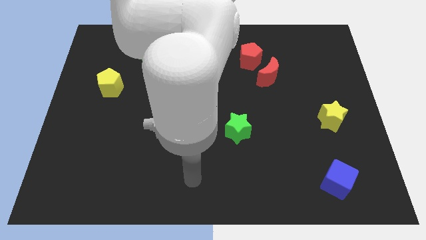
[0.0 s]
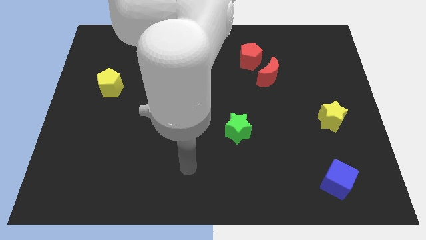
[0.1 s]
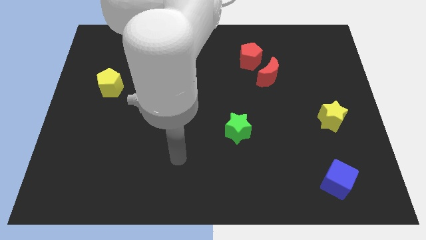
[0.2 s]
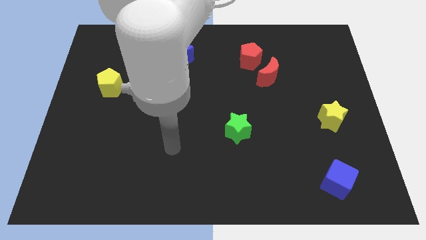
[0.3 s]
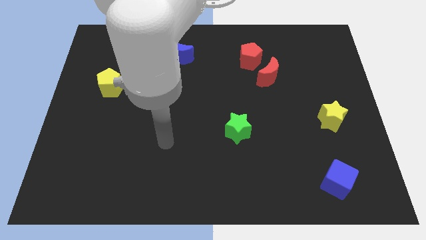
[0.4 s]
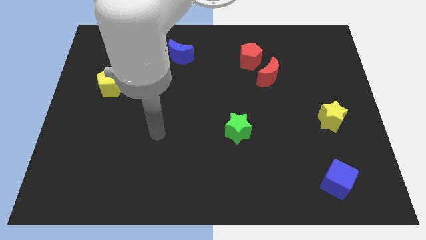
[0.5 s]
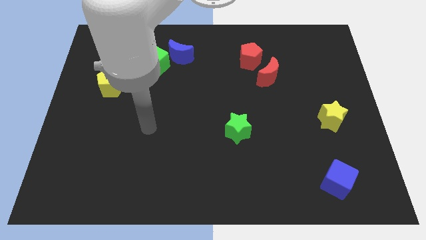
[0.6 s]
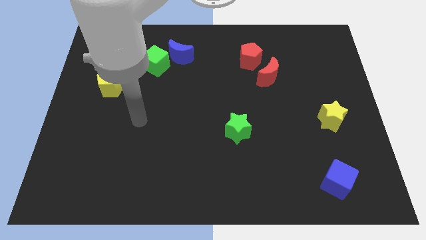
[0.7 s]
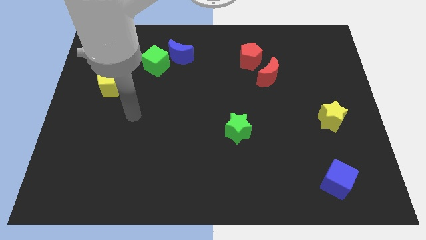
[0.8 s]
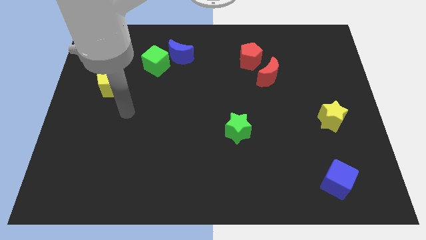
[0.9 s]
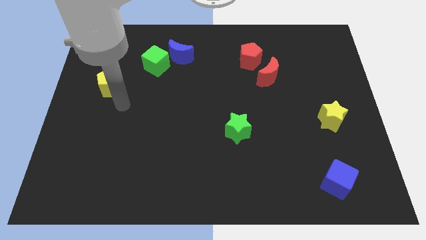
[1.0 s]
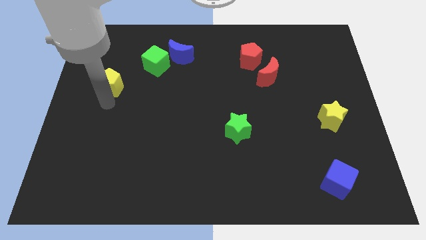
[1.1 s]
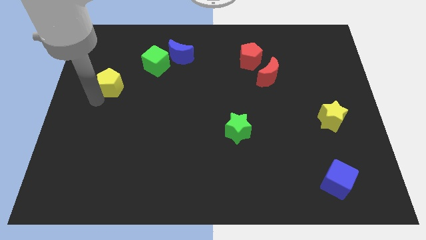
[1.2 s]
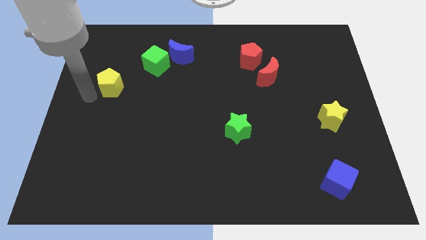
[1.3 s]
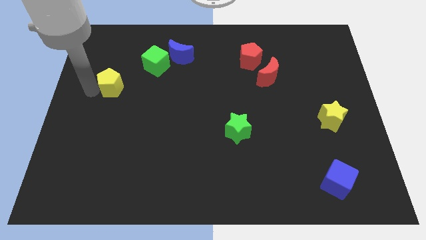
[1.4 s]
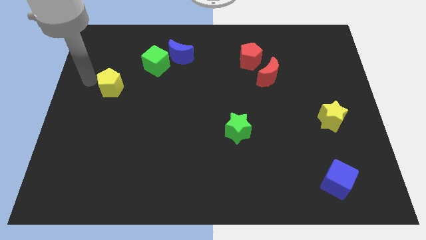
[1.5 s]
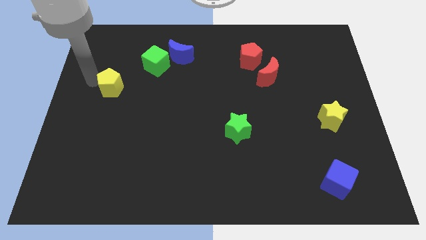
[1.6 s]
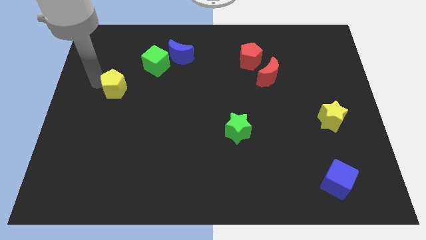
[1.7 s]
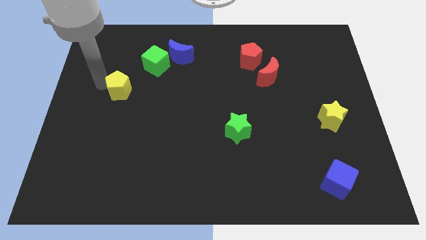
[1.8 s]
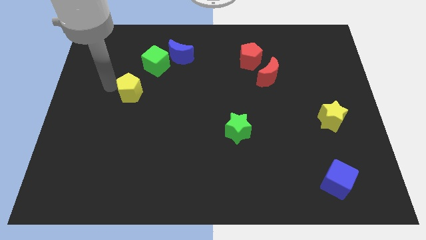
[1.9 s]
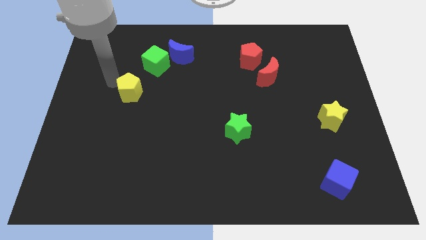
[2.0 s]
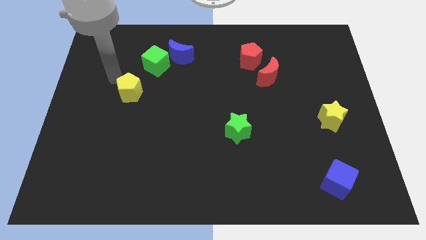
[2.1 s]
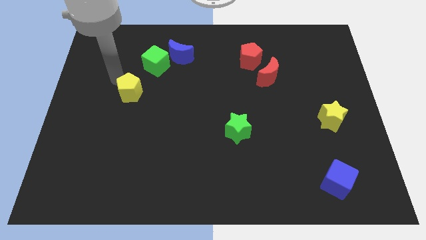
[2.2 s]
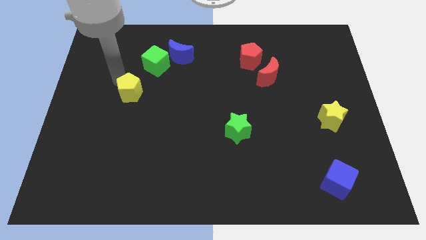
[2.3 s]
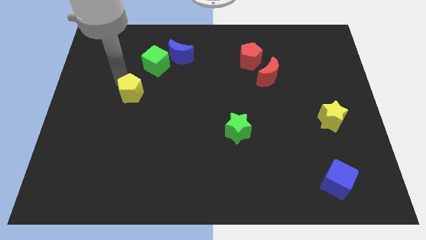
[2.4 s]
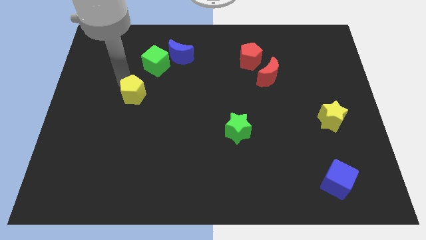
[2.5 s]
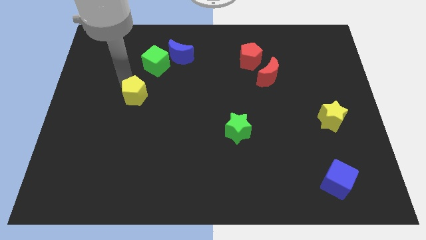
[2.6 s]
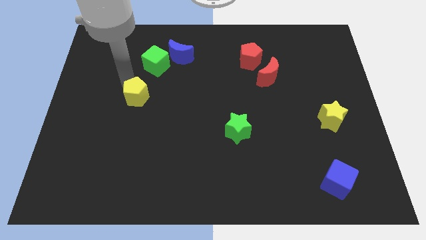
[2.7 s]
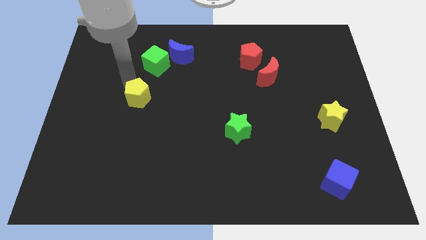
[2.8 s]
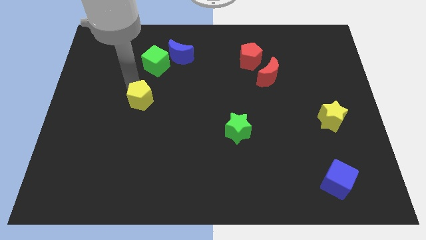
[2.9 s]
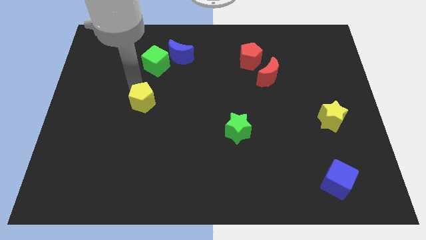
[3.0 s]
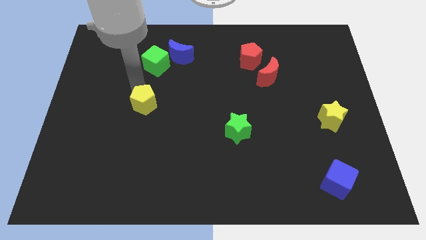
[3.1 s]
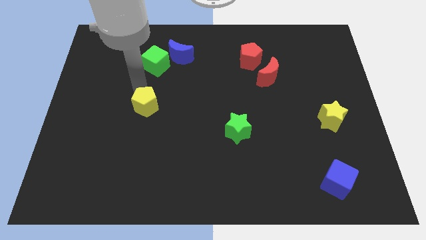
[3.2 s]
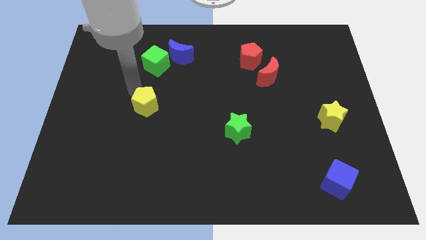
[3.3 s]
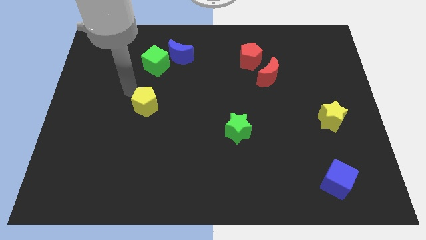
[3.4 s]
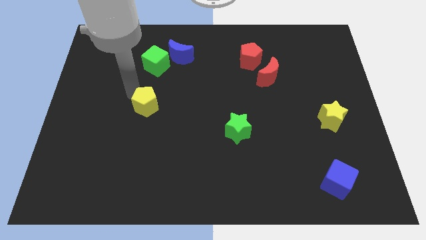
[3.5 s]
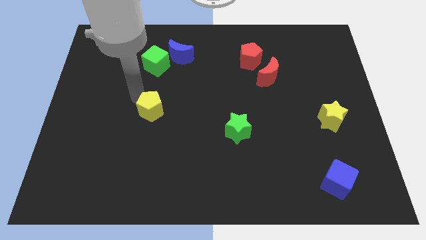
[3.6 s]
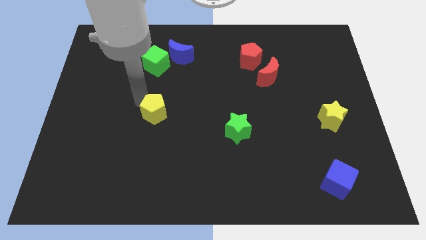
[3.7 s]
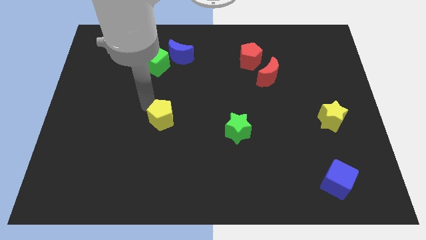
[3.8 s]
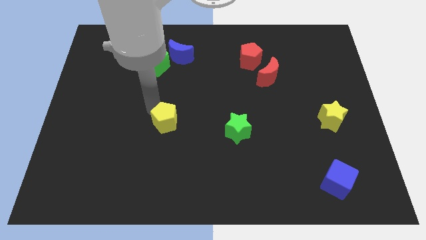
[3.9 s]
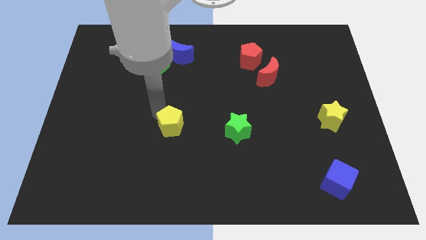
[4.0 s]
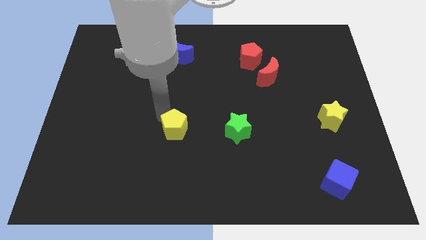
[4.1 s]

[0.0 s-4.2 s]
move the yellow pentagon downwards and then to the right

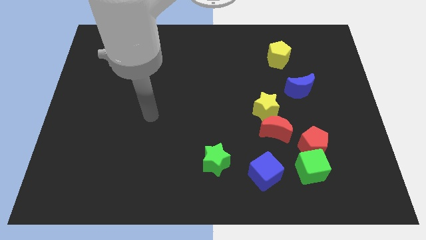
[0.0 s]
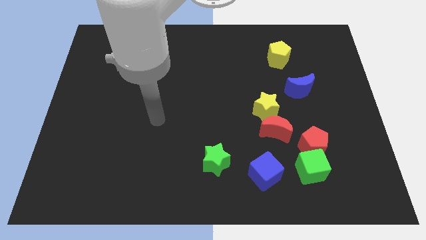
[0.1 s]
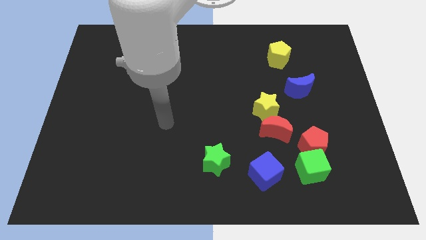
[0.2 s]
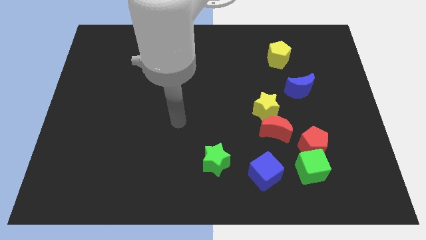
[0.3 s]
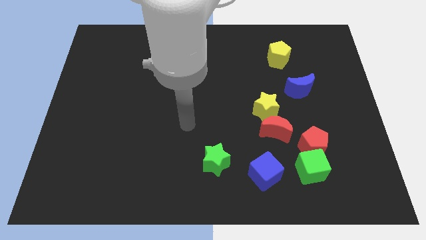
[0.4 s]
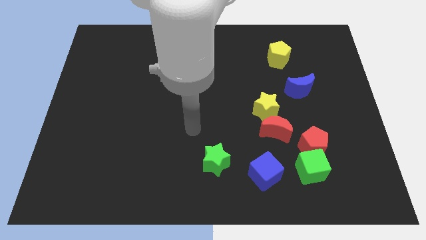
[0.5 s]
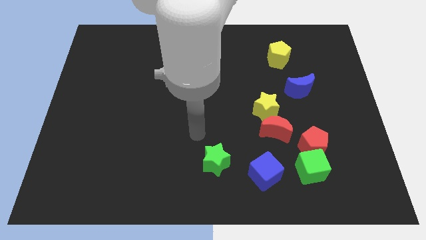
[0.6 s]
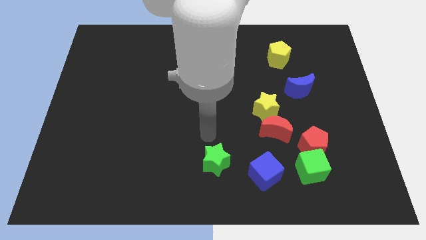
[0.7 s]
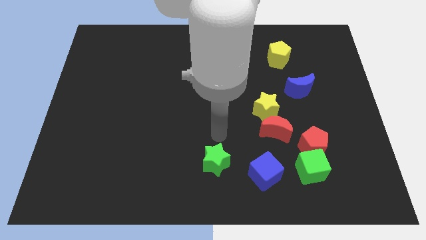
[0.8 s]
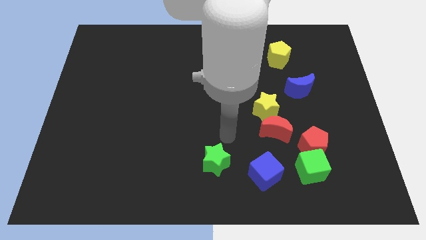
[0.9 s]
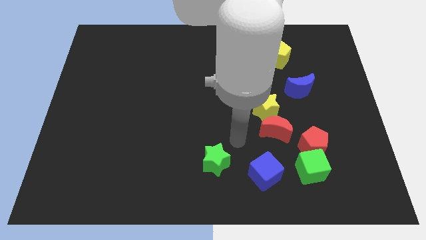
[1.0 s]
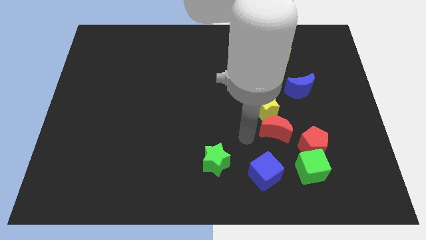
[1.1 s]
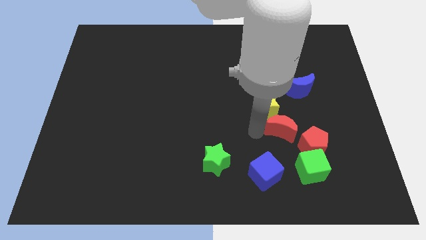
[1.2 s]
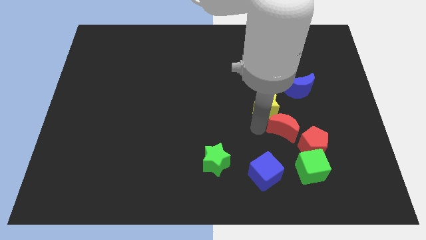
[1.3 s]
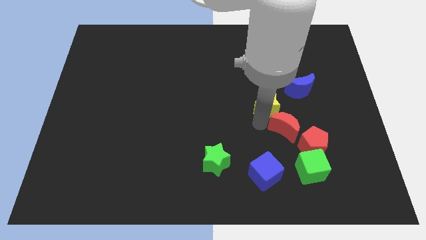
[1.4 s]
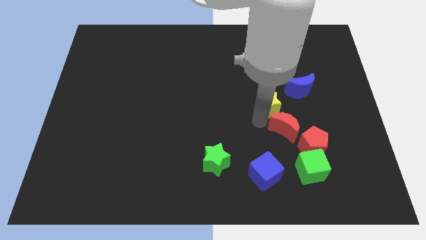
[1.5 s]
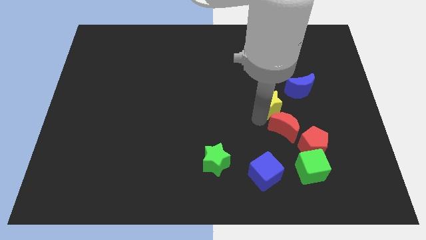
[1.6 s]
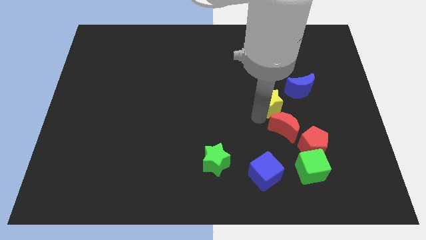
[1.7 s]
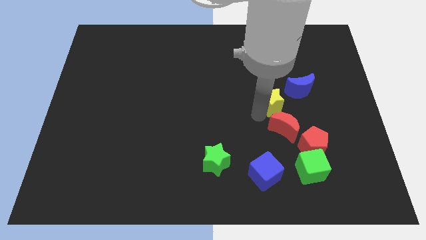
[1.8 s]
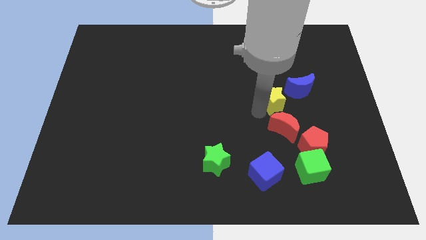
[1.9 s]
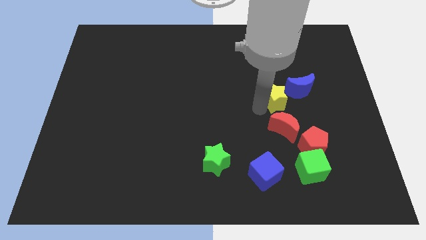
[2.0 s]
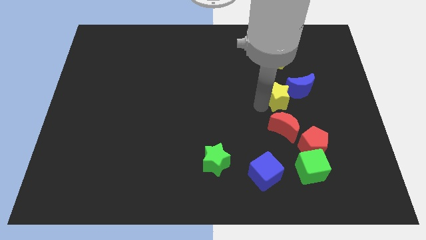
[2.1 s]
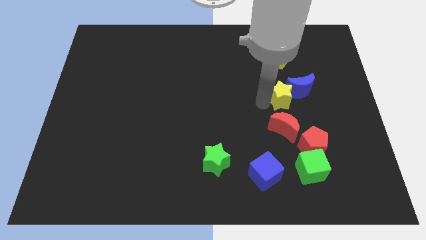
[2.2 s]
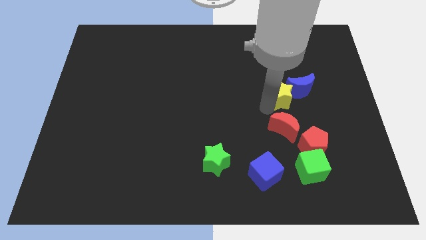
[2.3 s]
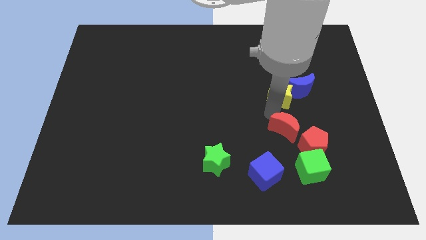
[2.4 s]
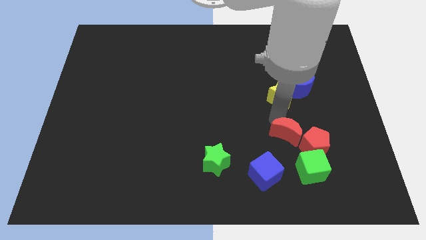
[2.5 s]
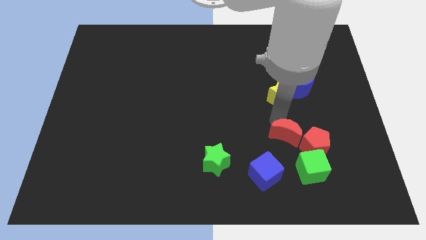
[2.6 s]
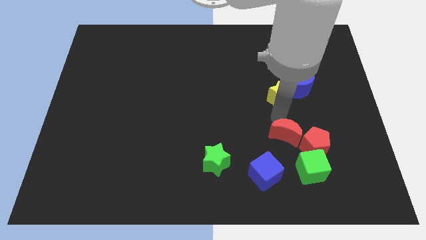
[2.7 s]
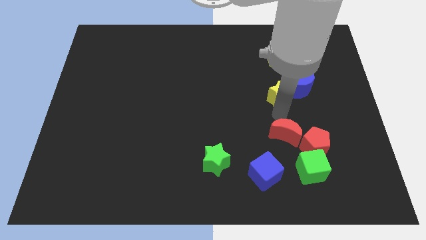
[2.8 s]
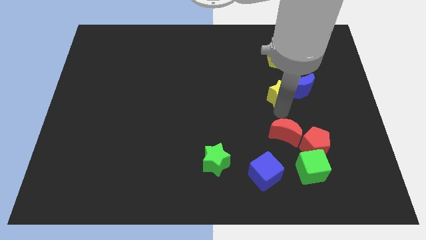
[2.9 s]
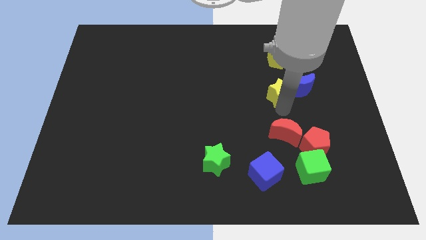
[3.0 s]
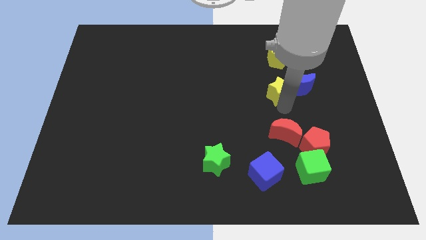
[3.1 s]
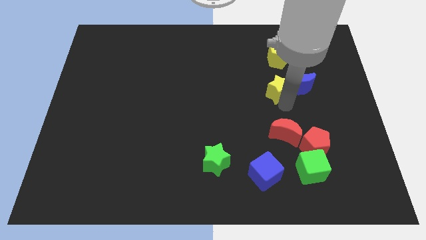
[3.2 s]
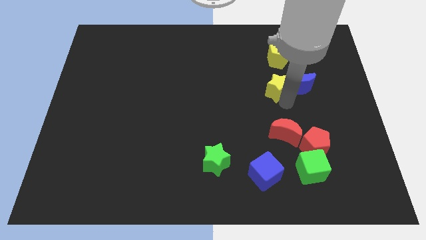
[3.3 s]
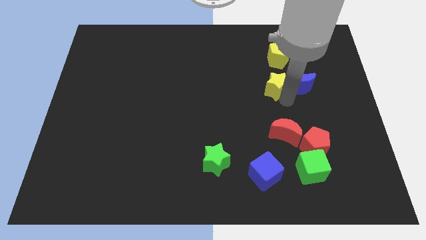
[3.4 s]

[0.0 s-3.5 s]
move the yellow star a little upwards and to the right

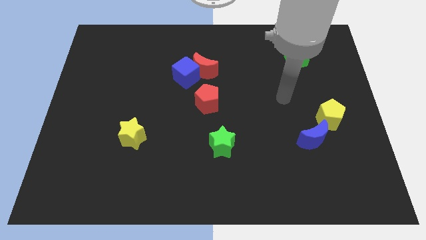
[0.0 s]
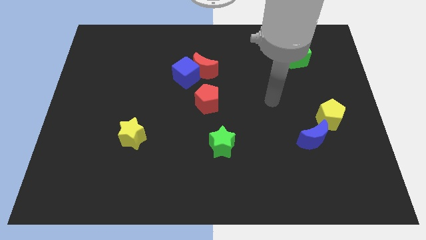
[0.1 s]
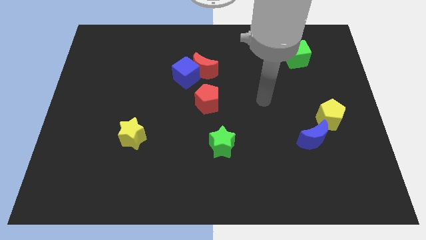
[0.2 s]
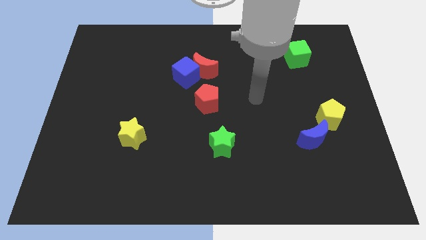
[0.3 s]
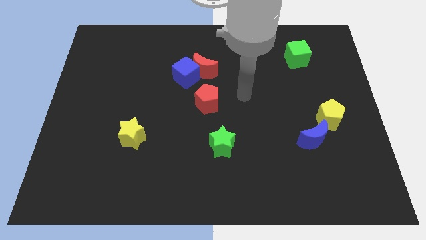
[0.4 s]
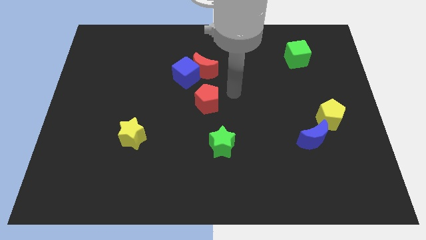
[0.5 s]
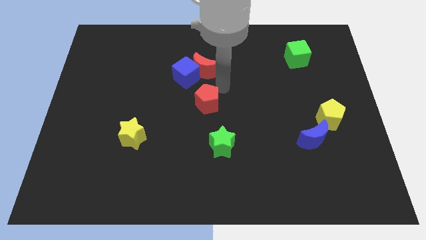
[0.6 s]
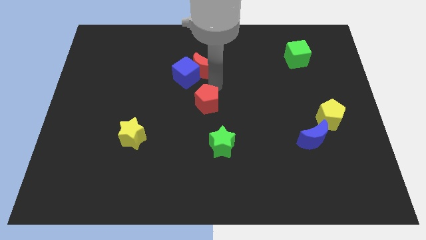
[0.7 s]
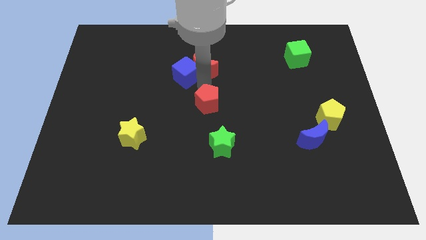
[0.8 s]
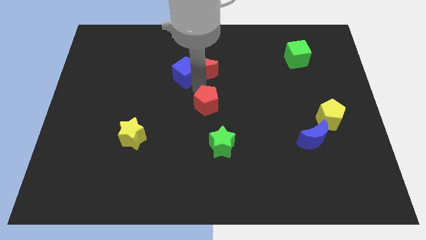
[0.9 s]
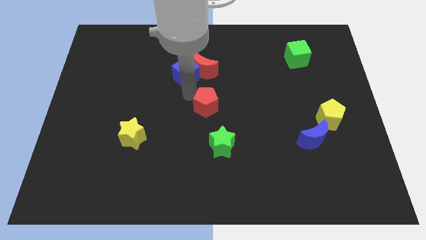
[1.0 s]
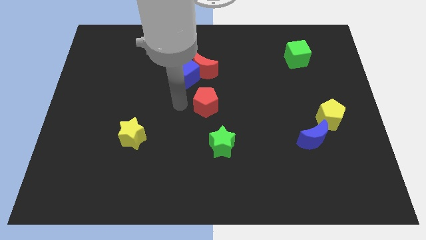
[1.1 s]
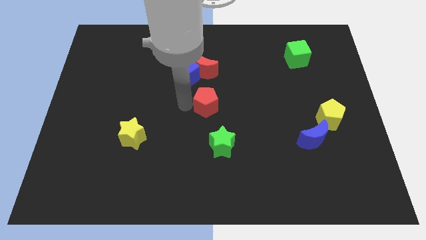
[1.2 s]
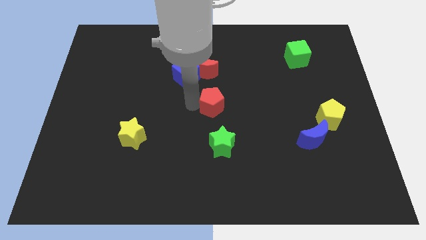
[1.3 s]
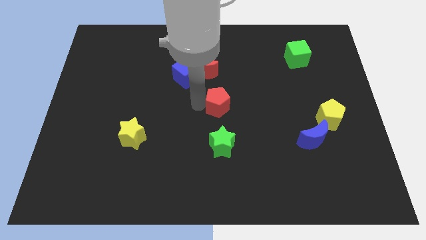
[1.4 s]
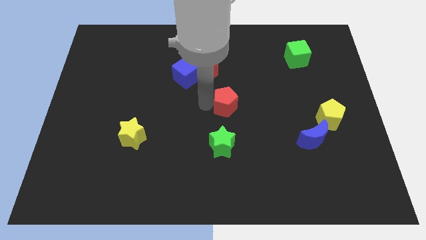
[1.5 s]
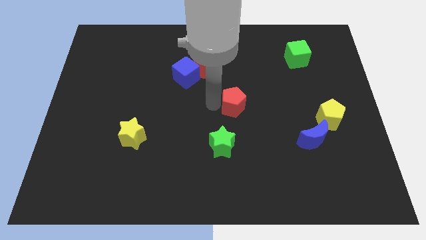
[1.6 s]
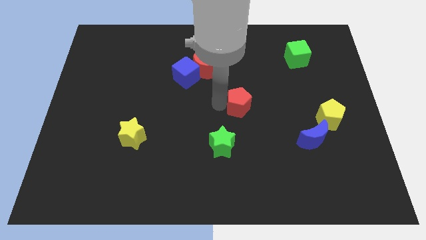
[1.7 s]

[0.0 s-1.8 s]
slide the red pentagon a little to the right
